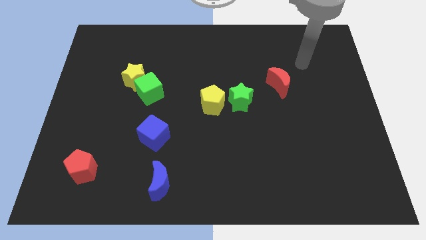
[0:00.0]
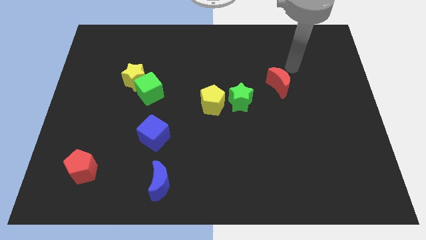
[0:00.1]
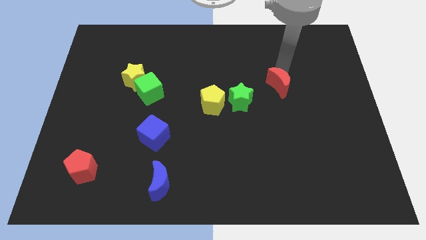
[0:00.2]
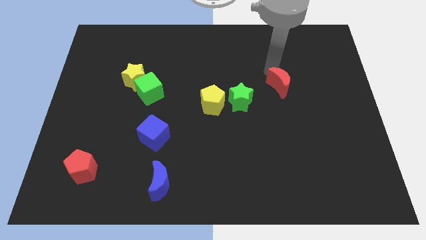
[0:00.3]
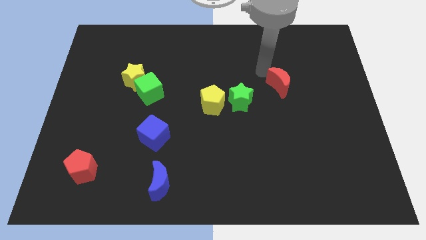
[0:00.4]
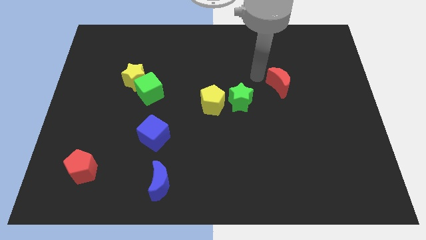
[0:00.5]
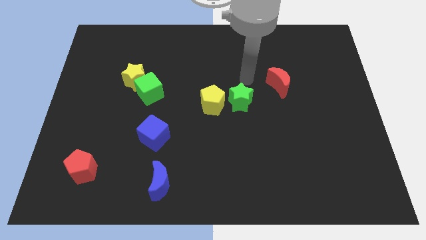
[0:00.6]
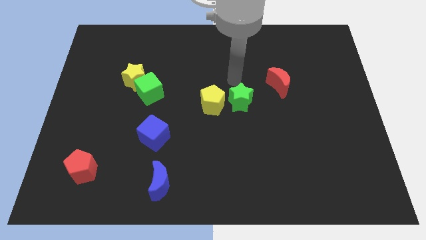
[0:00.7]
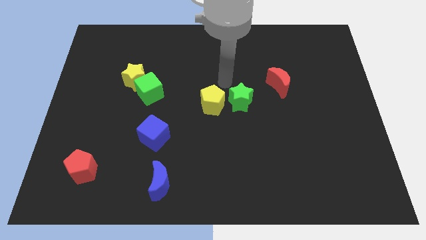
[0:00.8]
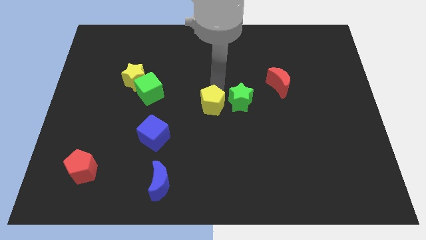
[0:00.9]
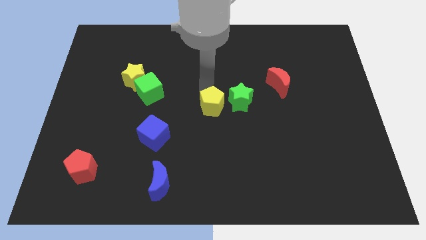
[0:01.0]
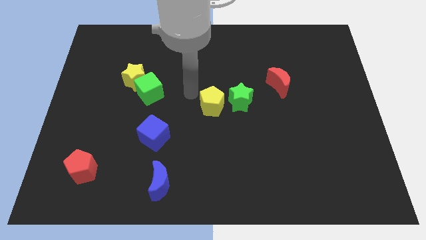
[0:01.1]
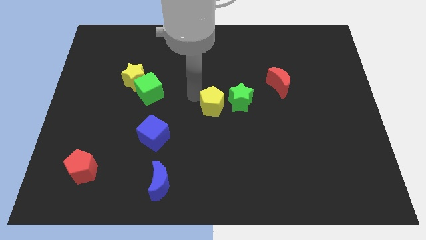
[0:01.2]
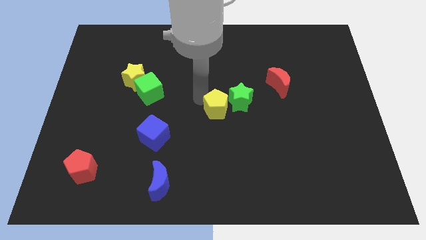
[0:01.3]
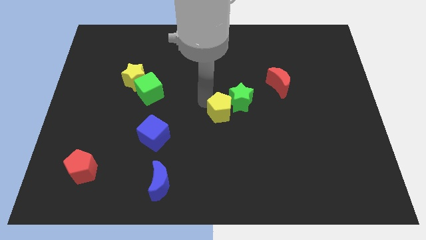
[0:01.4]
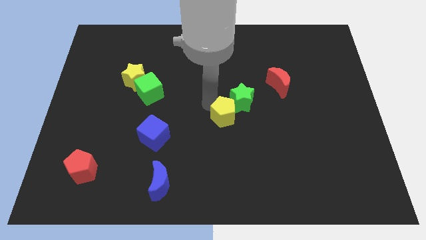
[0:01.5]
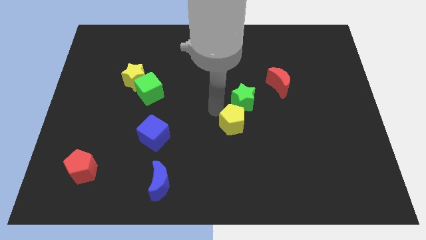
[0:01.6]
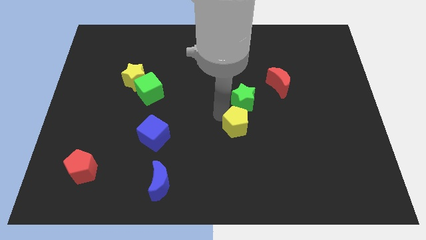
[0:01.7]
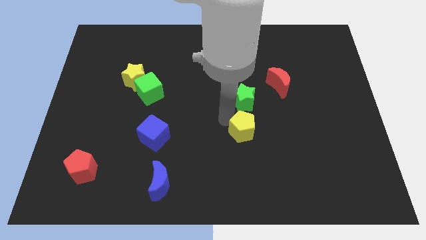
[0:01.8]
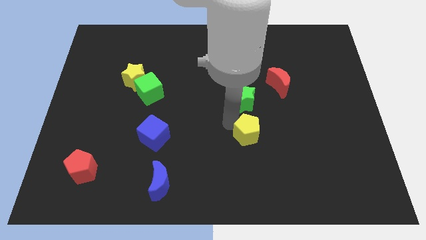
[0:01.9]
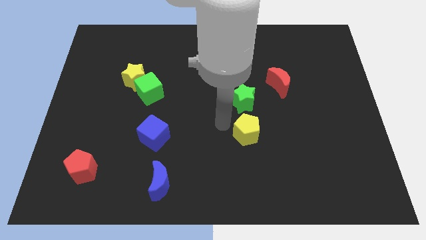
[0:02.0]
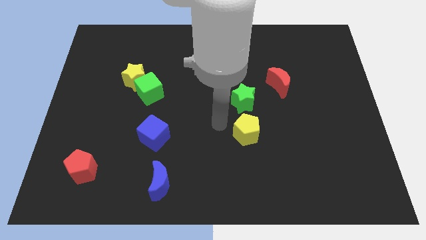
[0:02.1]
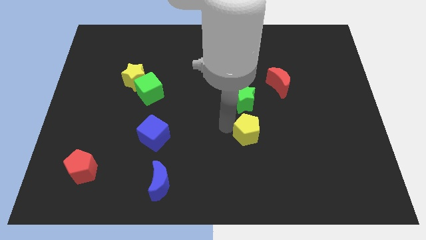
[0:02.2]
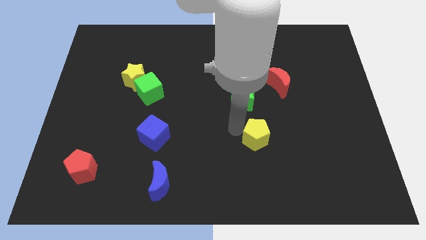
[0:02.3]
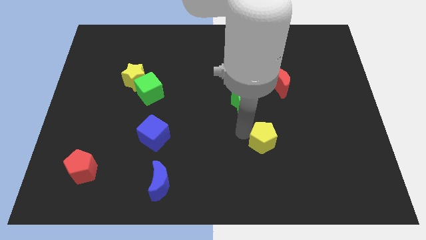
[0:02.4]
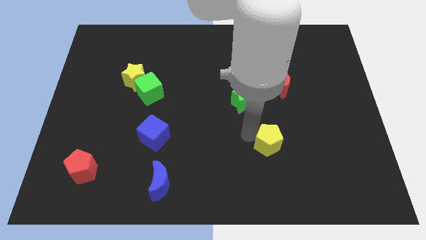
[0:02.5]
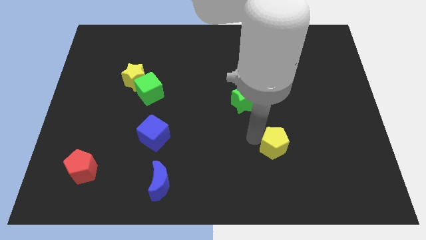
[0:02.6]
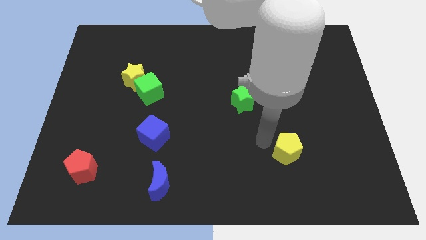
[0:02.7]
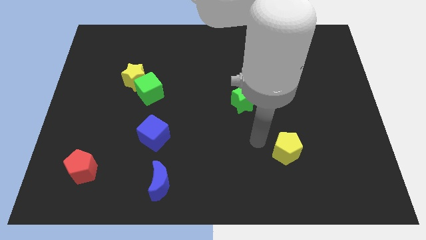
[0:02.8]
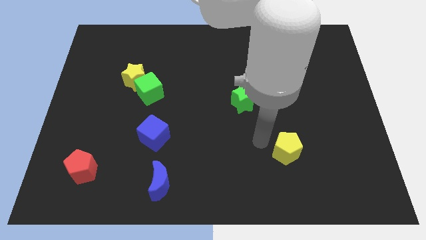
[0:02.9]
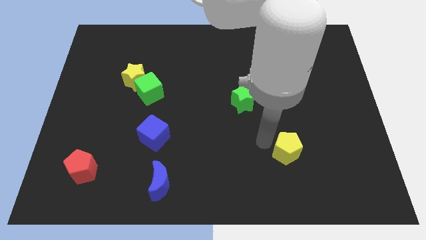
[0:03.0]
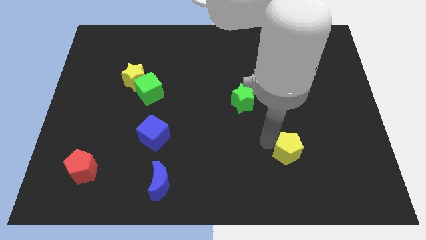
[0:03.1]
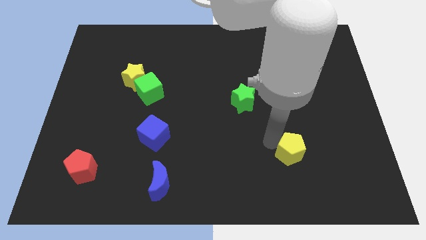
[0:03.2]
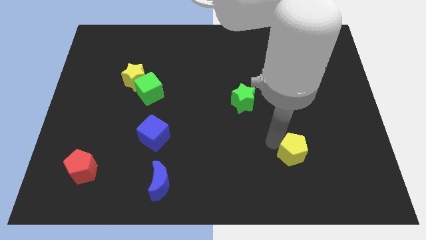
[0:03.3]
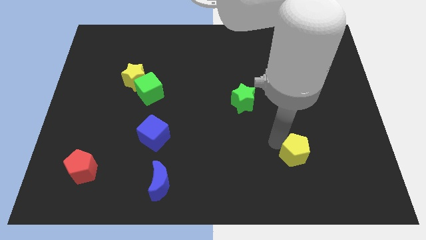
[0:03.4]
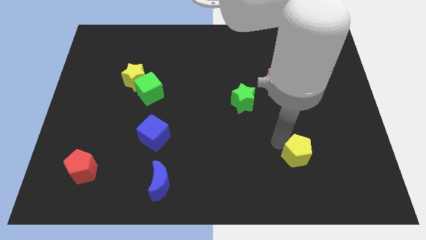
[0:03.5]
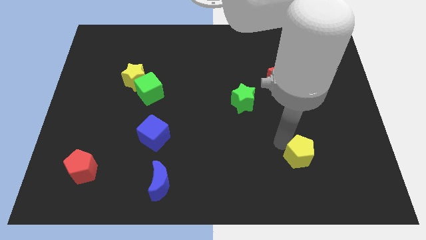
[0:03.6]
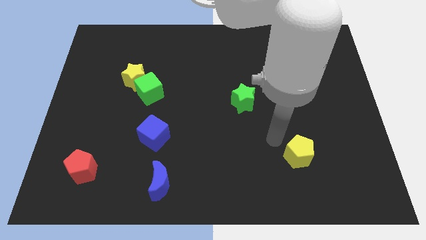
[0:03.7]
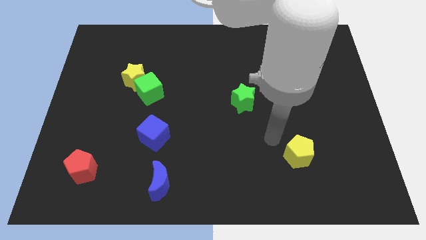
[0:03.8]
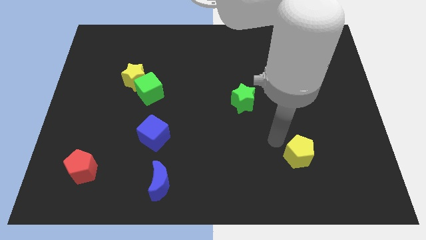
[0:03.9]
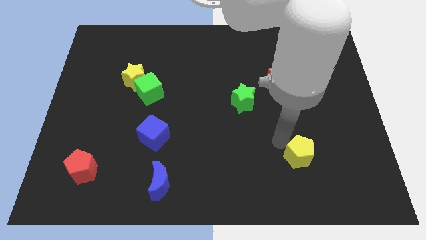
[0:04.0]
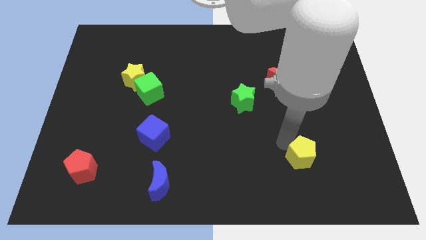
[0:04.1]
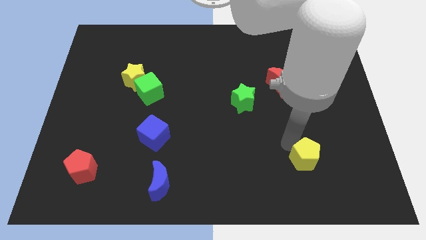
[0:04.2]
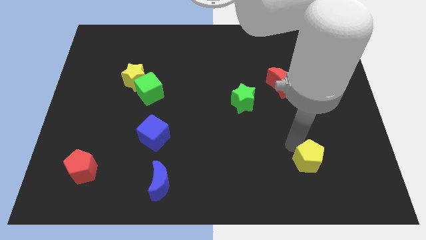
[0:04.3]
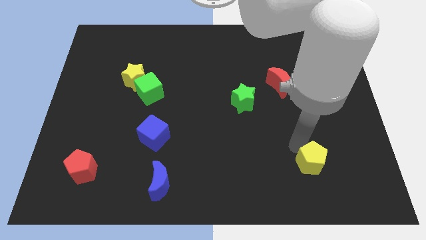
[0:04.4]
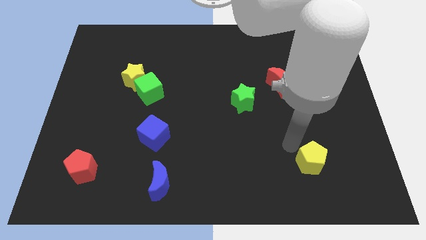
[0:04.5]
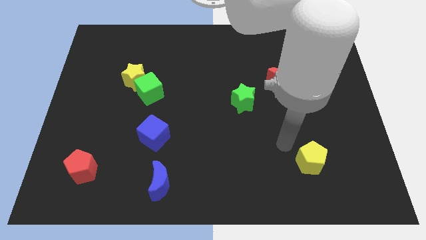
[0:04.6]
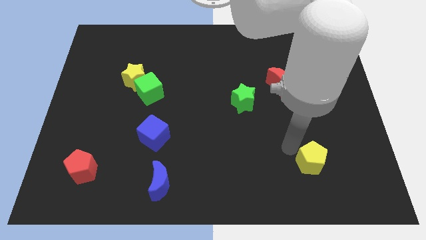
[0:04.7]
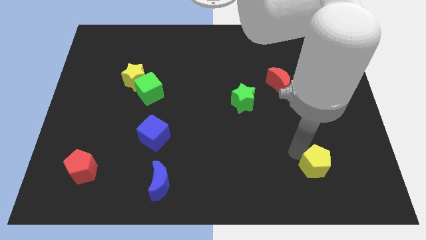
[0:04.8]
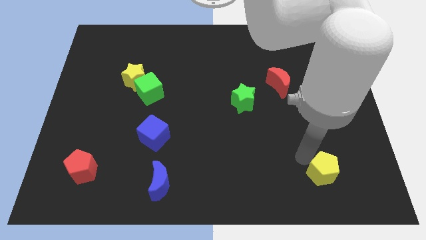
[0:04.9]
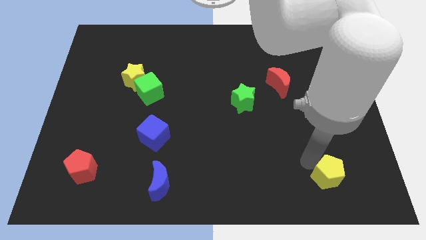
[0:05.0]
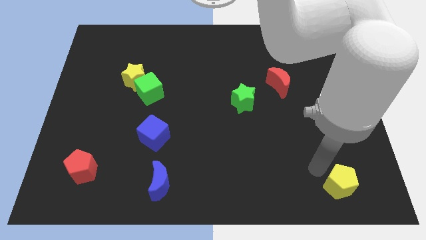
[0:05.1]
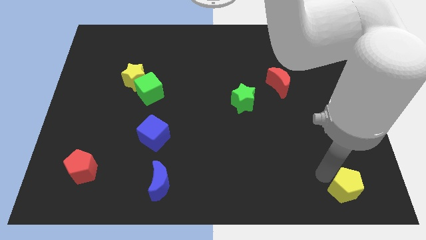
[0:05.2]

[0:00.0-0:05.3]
move the yellow pentagon to the bottom right
